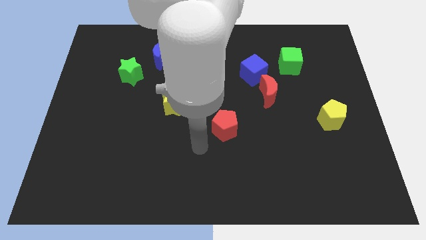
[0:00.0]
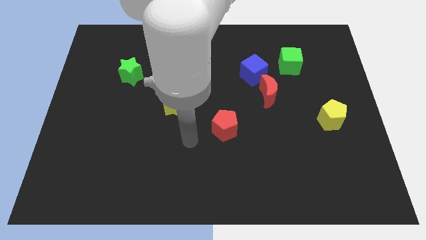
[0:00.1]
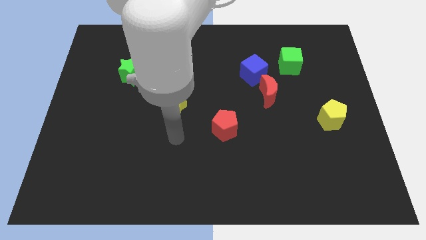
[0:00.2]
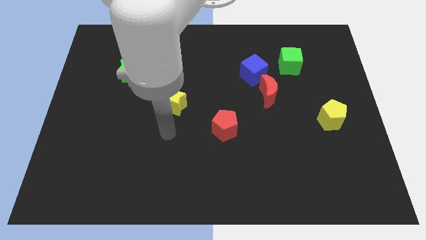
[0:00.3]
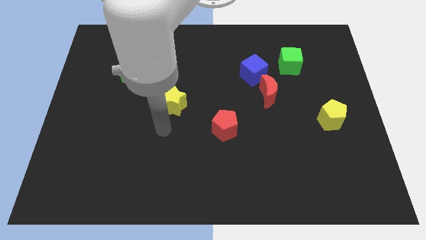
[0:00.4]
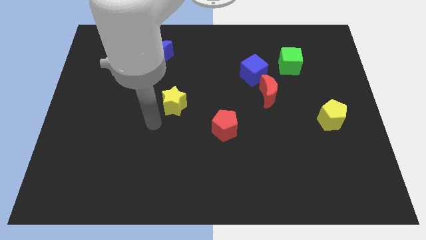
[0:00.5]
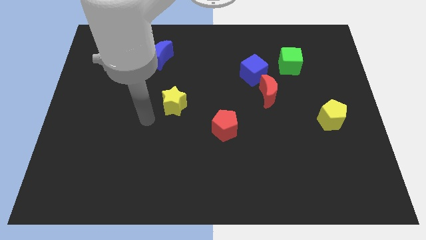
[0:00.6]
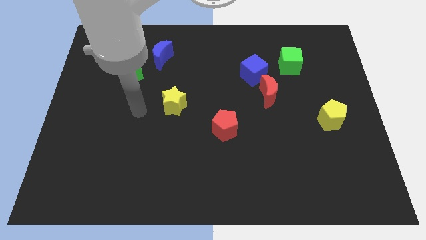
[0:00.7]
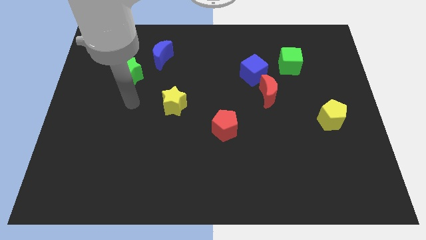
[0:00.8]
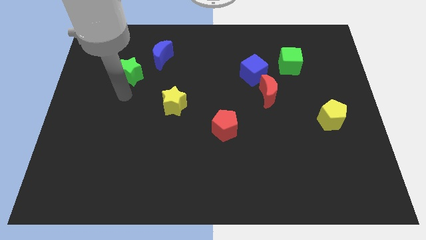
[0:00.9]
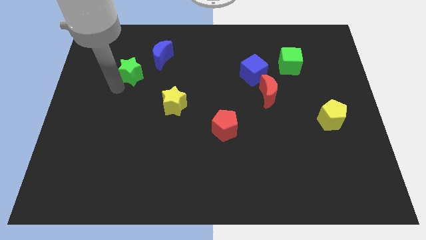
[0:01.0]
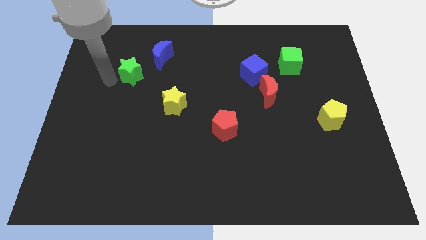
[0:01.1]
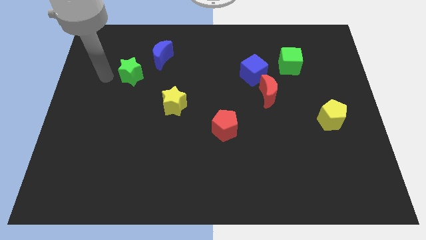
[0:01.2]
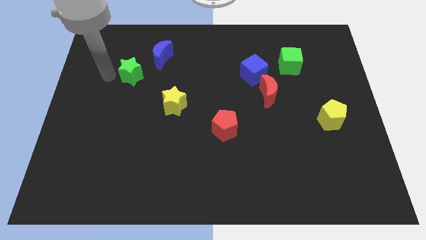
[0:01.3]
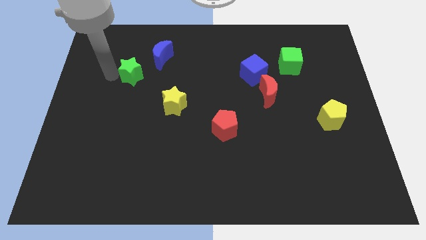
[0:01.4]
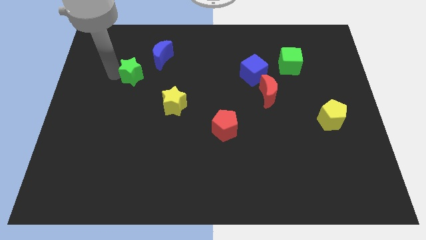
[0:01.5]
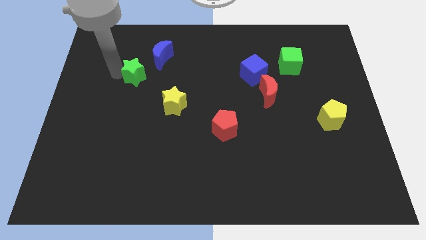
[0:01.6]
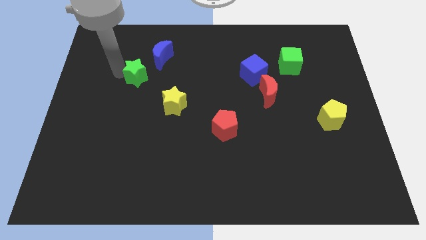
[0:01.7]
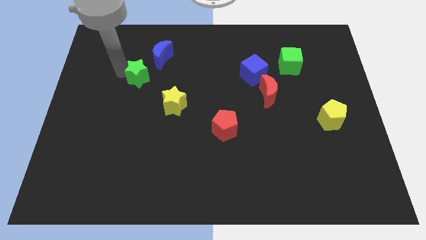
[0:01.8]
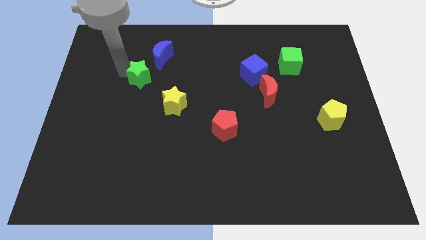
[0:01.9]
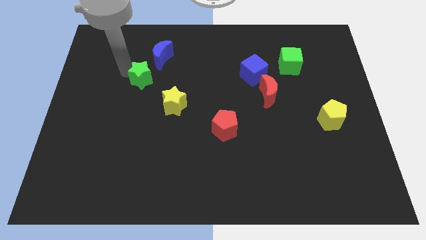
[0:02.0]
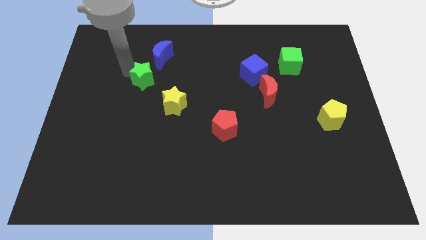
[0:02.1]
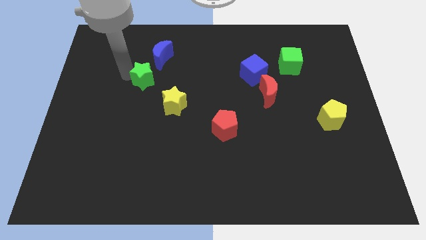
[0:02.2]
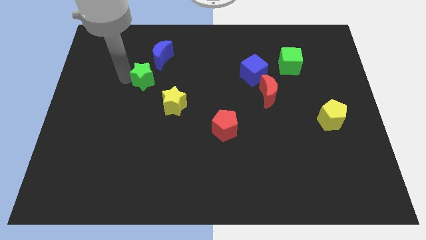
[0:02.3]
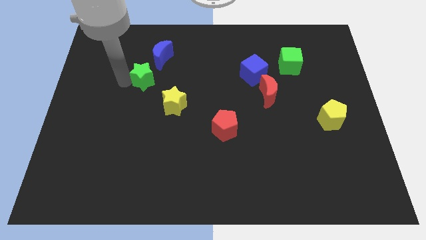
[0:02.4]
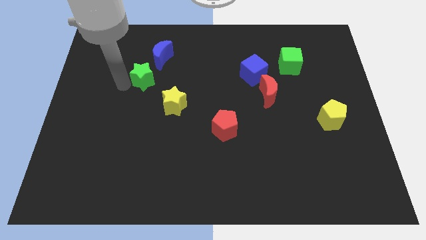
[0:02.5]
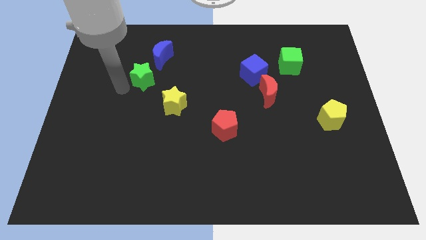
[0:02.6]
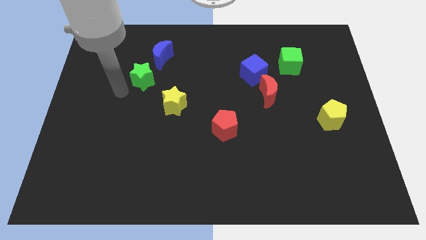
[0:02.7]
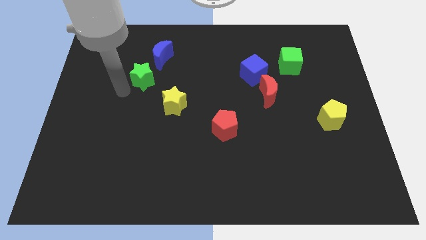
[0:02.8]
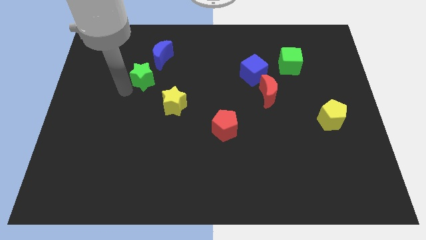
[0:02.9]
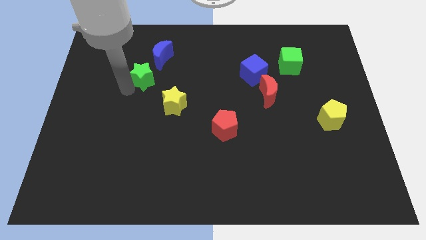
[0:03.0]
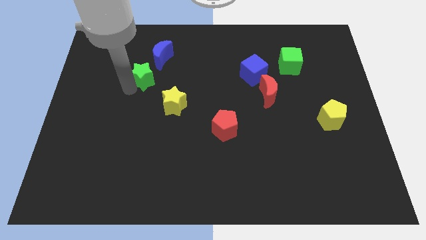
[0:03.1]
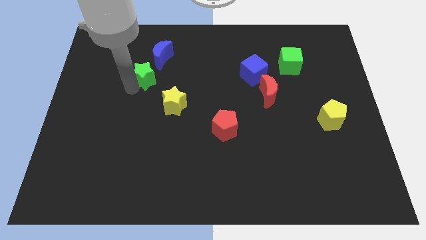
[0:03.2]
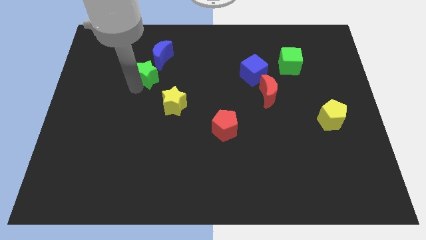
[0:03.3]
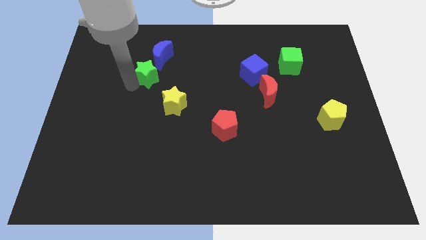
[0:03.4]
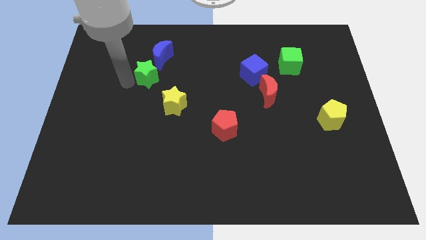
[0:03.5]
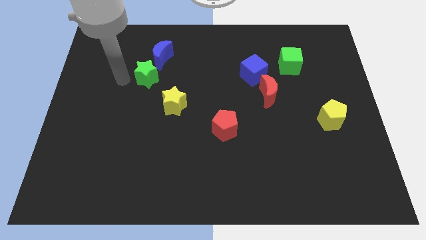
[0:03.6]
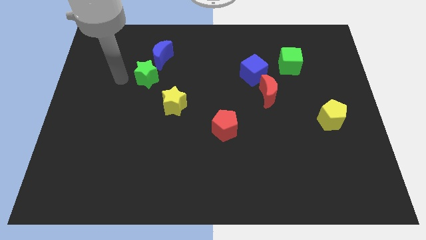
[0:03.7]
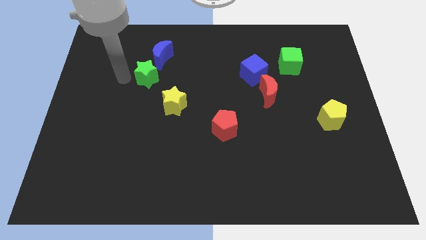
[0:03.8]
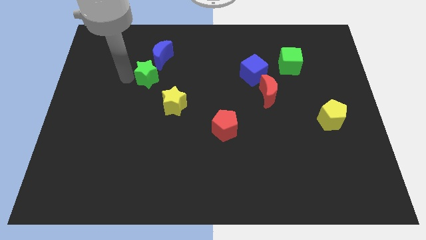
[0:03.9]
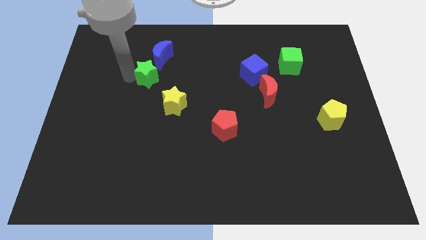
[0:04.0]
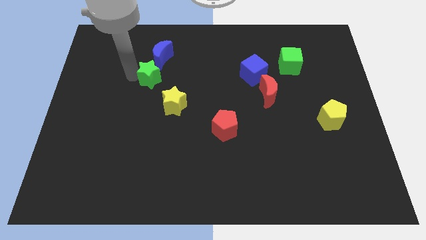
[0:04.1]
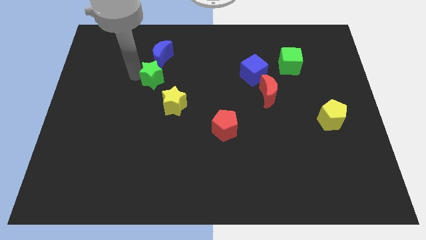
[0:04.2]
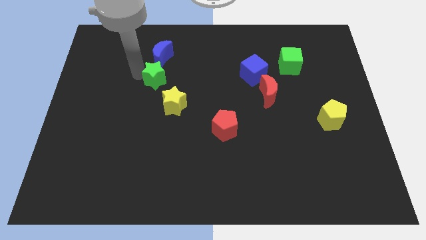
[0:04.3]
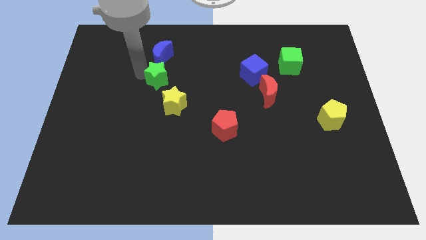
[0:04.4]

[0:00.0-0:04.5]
move the green star slightly to the right

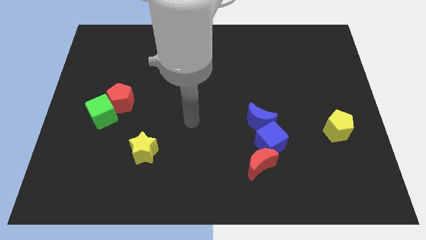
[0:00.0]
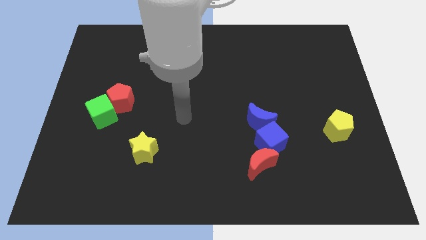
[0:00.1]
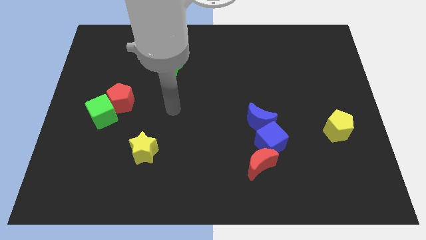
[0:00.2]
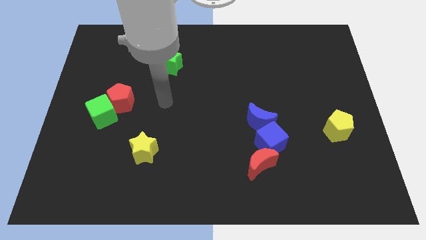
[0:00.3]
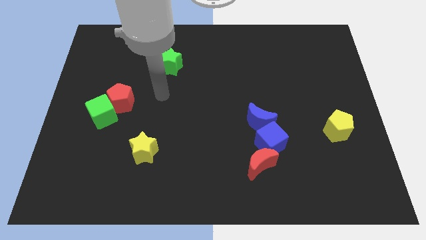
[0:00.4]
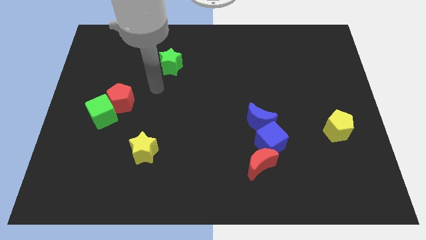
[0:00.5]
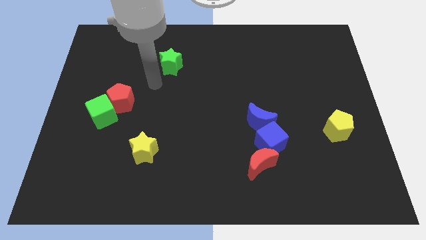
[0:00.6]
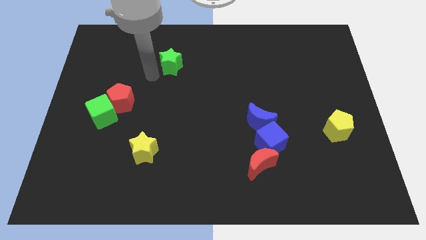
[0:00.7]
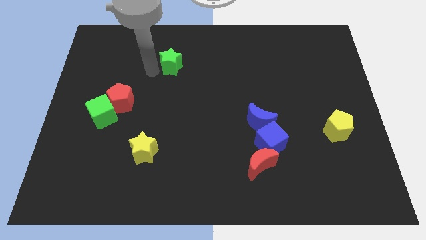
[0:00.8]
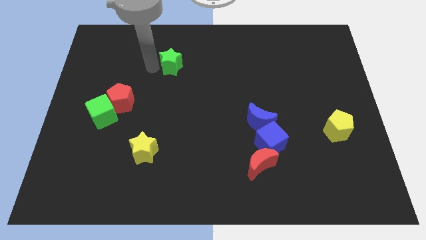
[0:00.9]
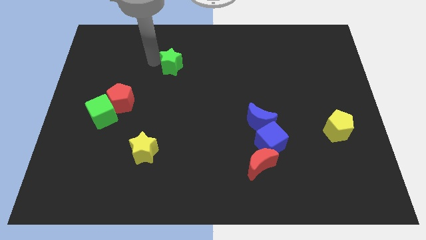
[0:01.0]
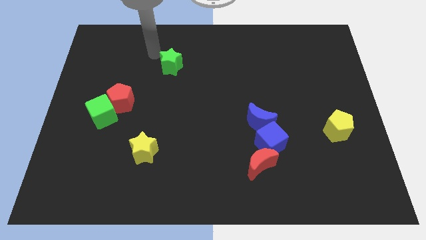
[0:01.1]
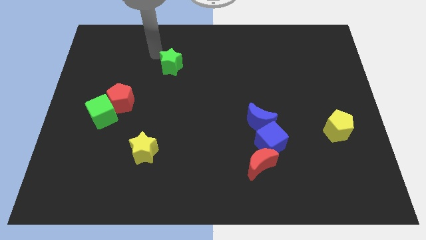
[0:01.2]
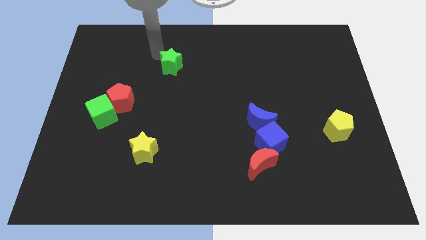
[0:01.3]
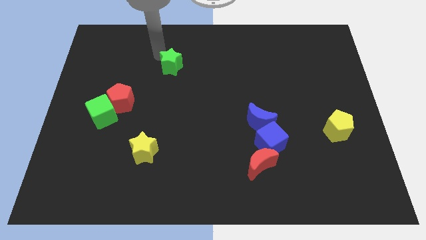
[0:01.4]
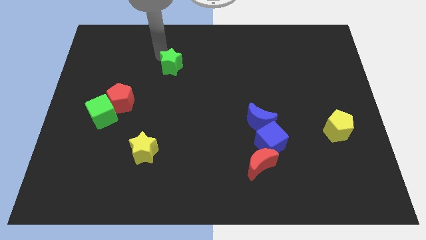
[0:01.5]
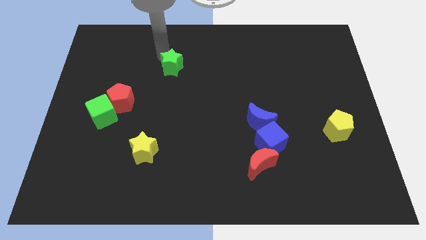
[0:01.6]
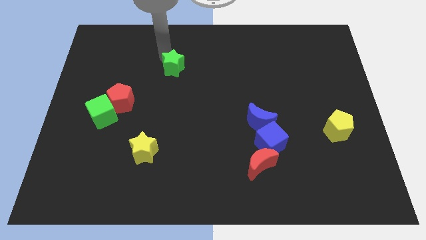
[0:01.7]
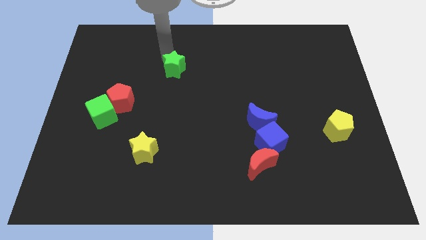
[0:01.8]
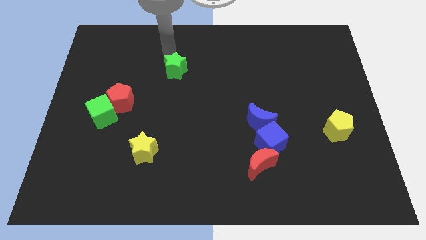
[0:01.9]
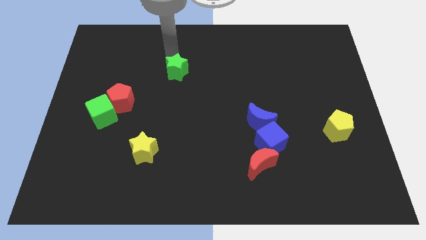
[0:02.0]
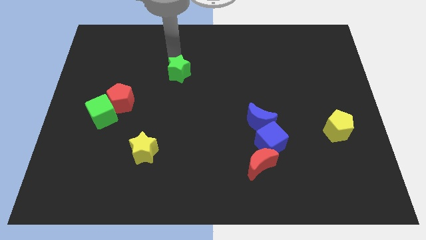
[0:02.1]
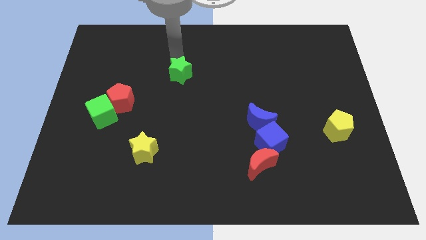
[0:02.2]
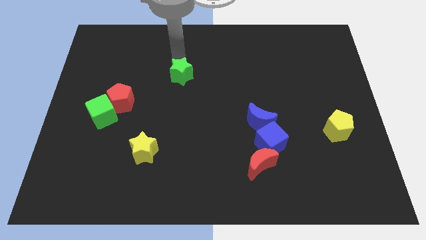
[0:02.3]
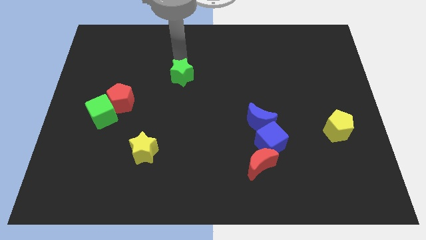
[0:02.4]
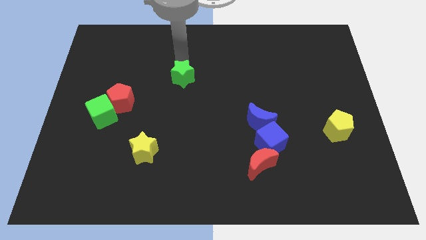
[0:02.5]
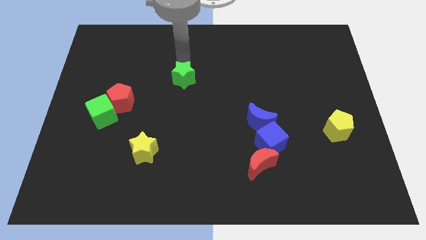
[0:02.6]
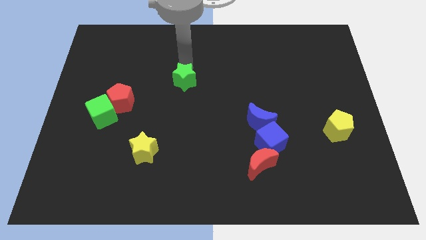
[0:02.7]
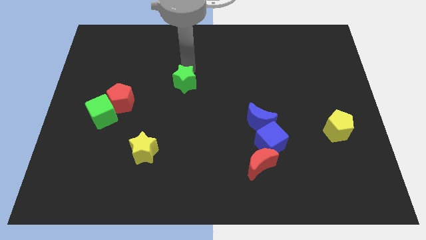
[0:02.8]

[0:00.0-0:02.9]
push the green star down and to the right a little bit

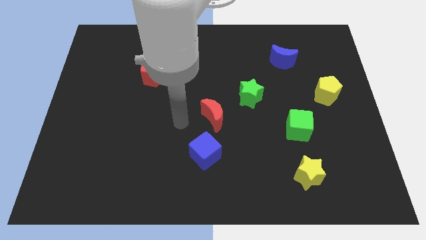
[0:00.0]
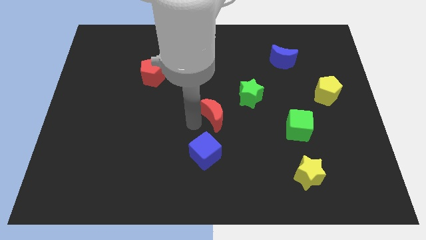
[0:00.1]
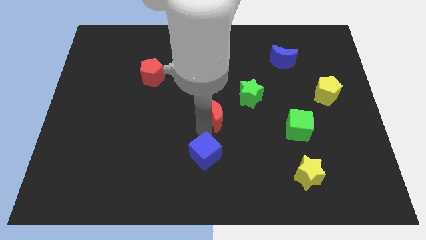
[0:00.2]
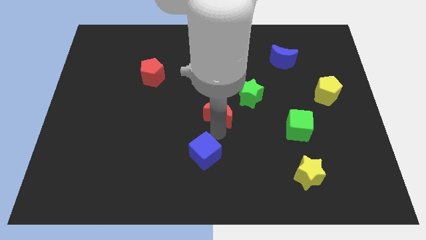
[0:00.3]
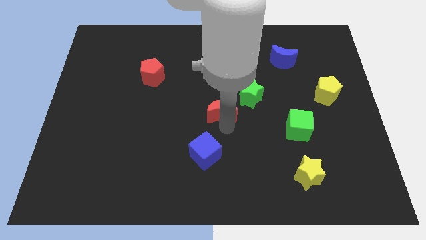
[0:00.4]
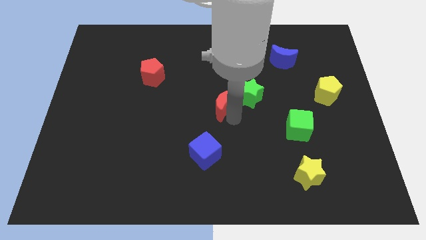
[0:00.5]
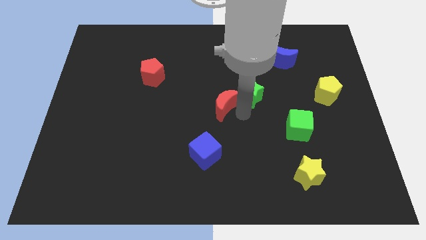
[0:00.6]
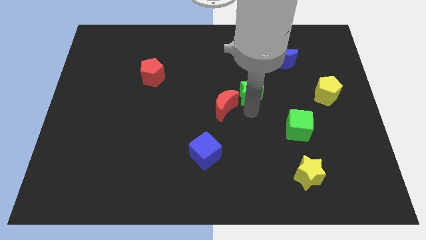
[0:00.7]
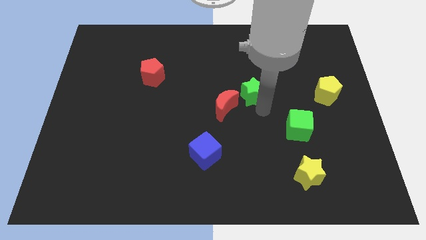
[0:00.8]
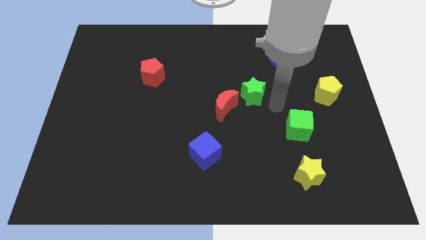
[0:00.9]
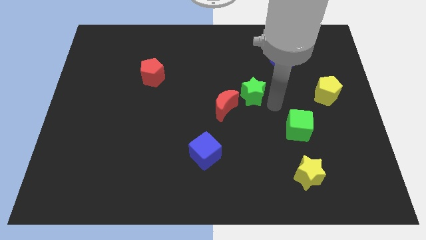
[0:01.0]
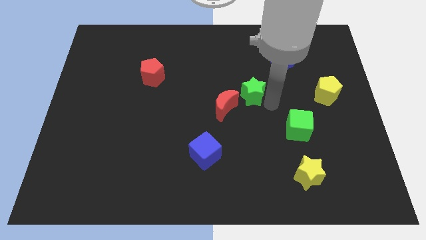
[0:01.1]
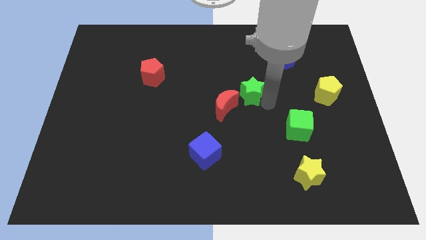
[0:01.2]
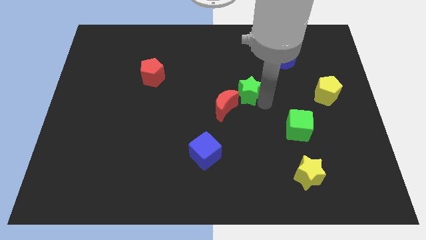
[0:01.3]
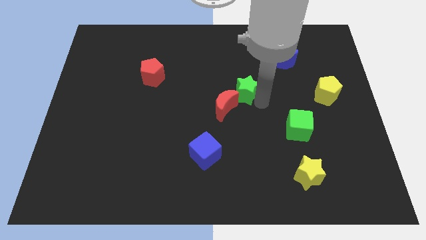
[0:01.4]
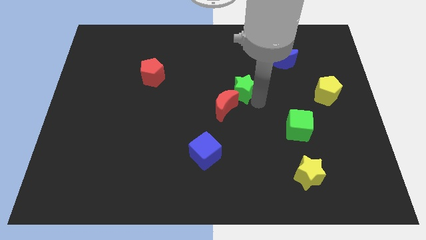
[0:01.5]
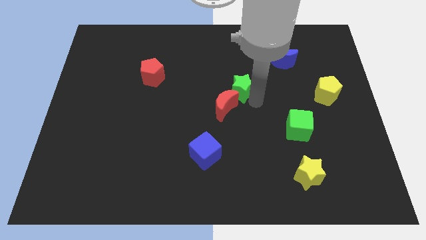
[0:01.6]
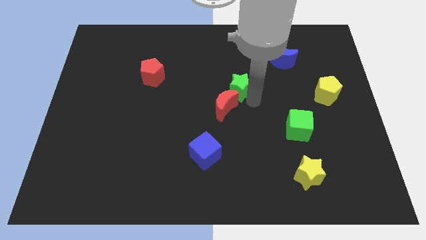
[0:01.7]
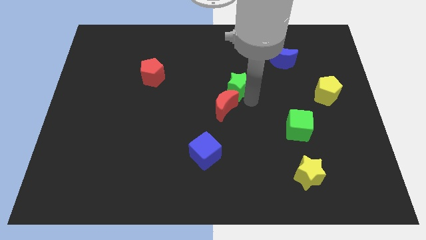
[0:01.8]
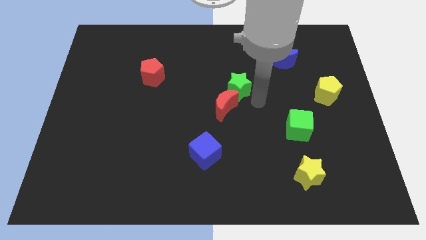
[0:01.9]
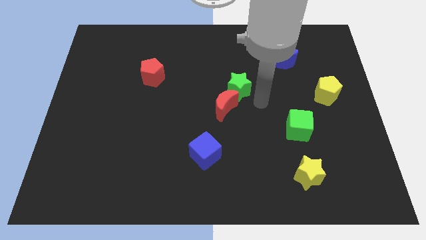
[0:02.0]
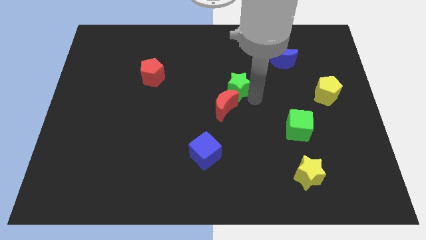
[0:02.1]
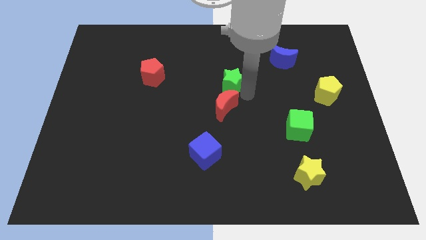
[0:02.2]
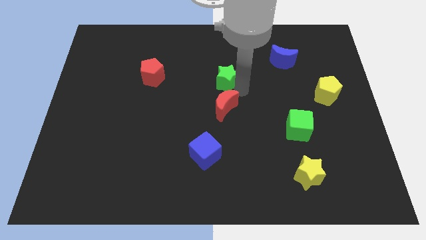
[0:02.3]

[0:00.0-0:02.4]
push the green star upwards and left slightly
